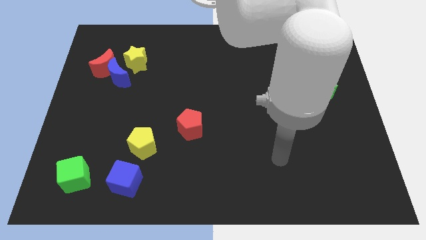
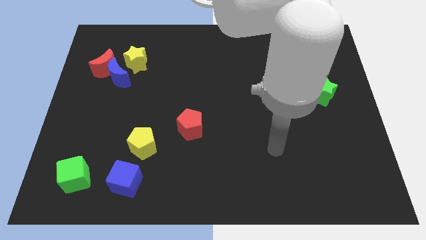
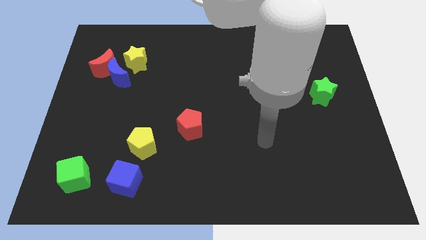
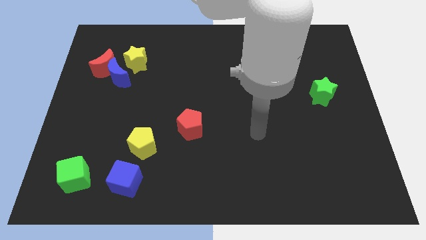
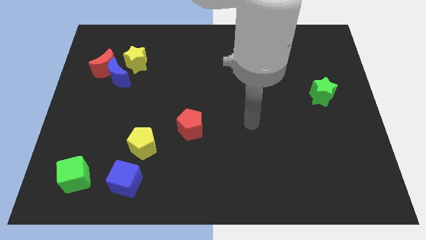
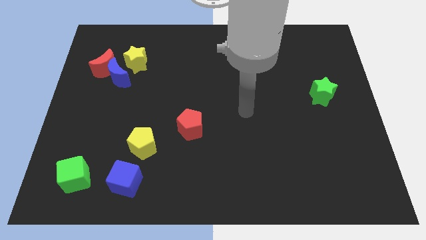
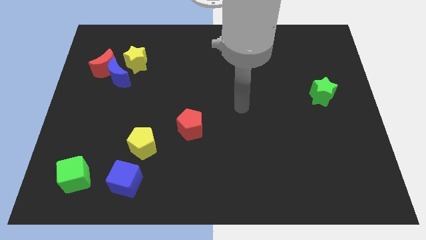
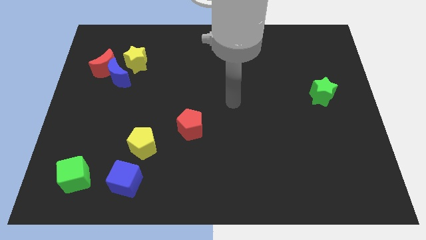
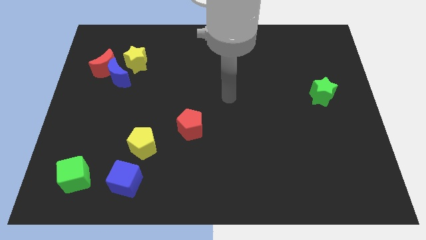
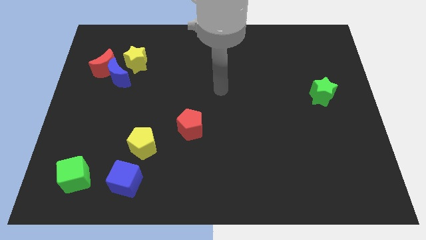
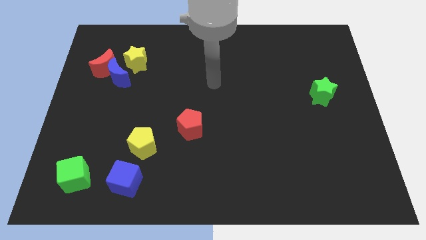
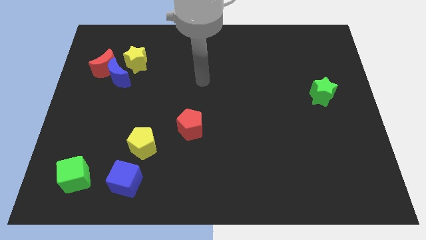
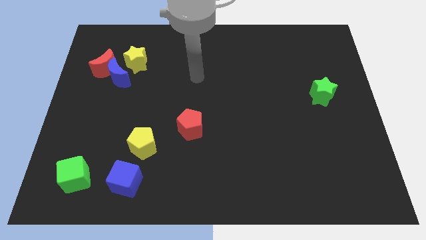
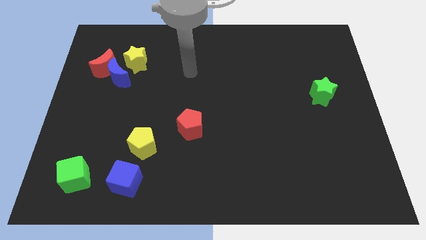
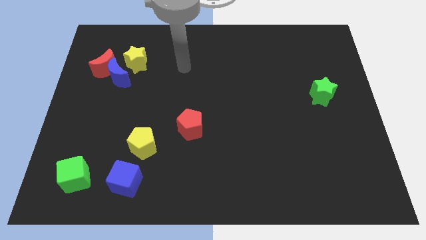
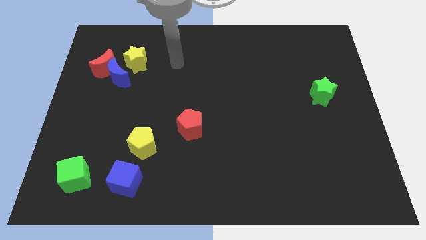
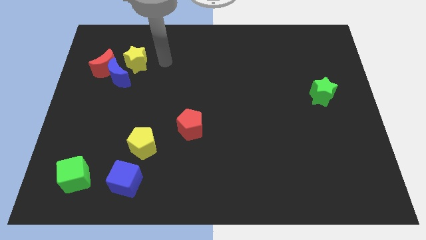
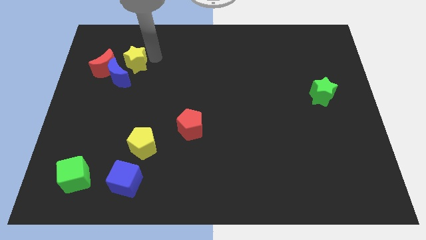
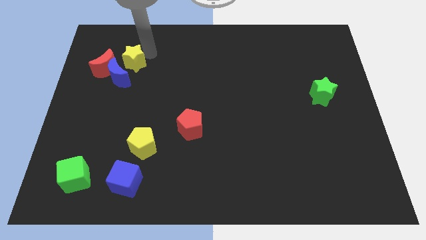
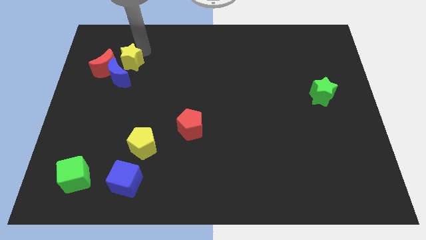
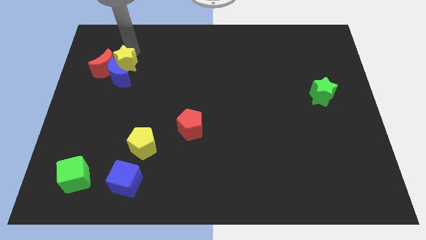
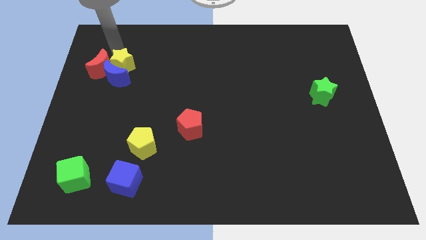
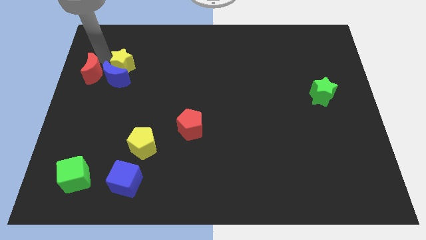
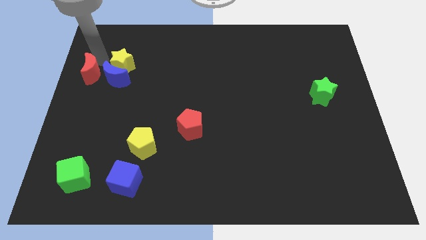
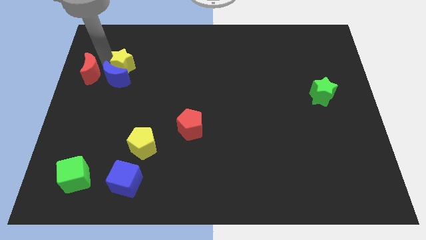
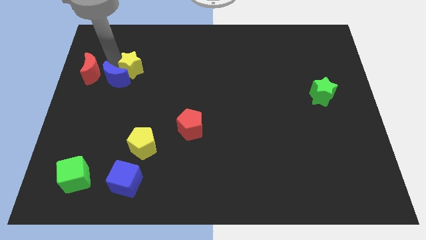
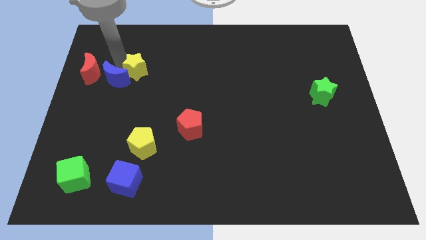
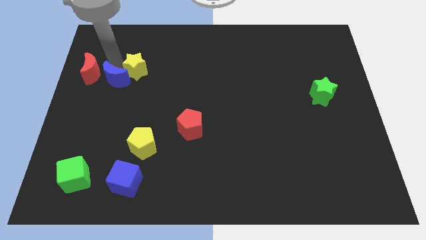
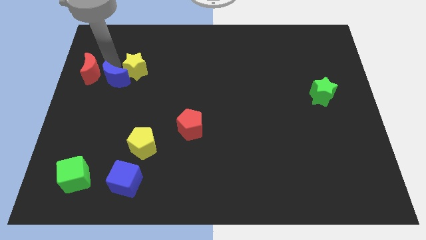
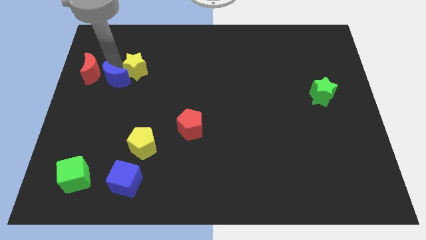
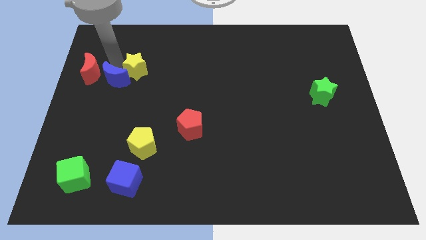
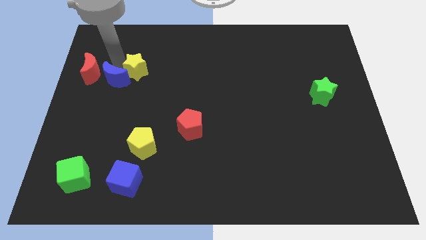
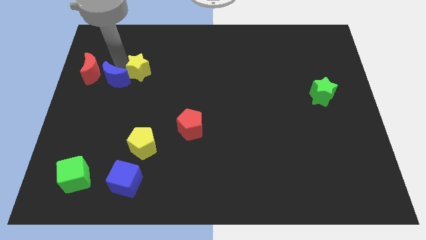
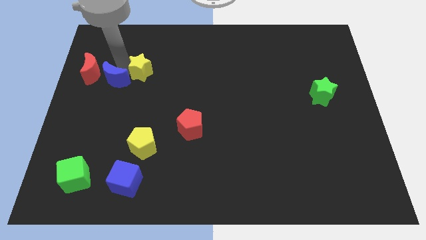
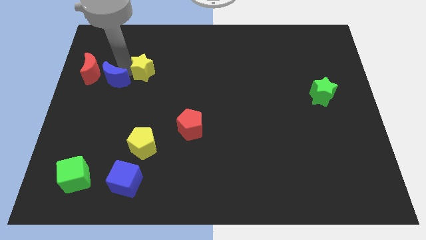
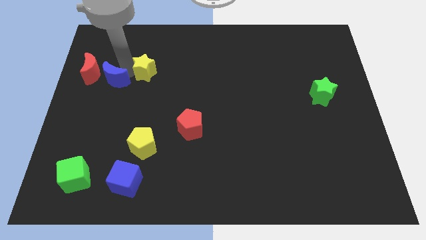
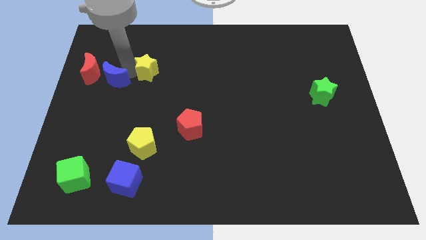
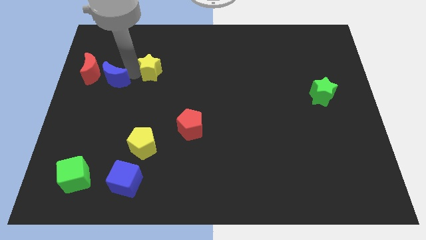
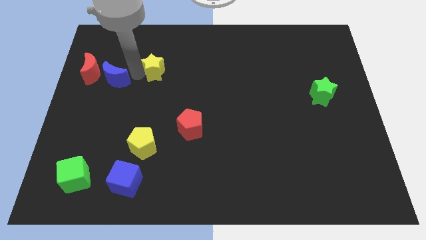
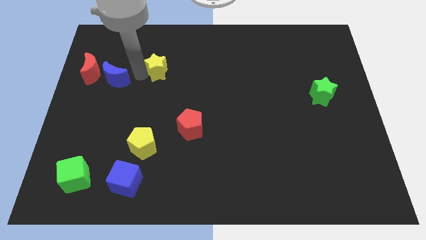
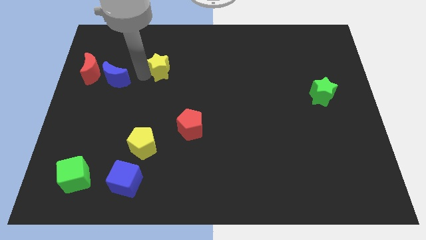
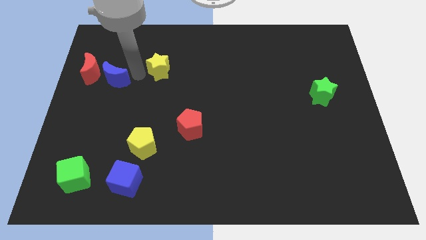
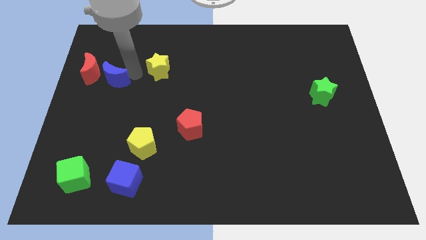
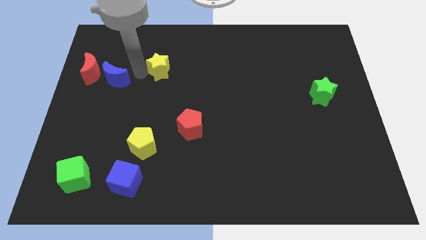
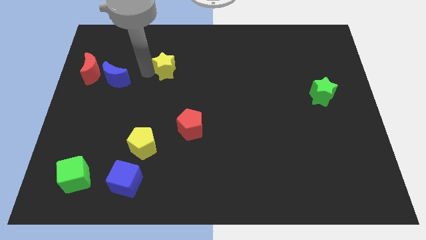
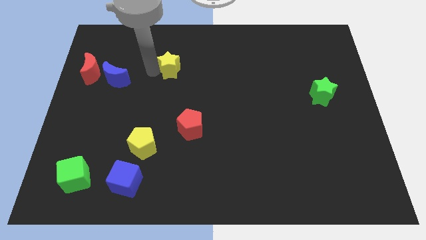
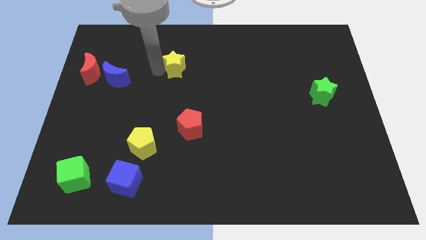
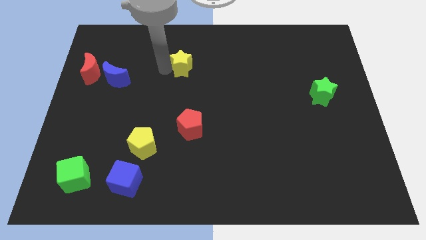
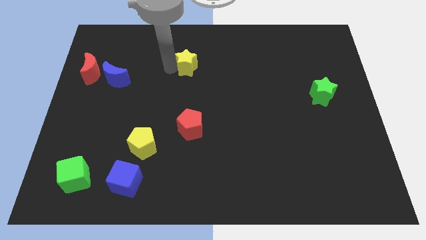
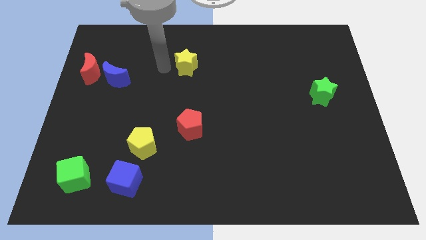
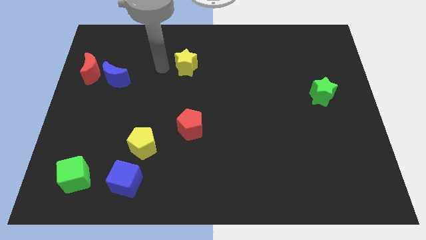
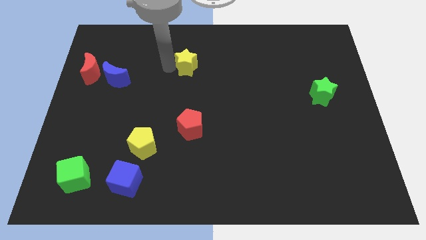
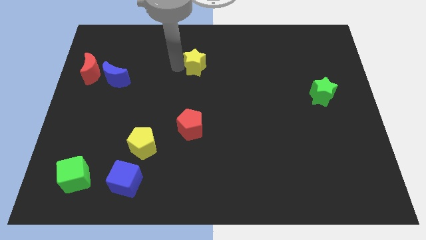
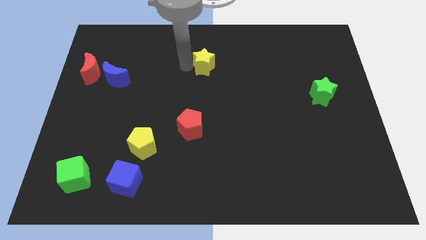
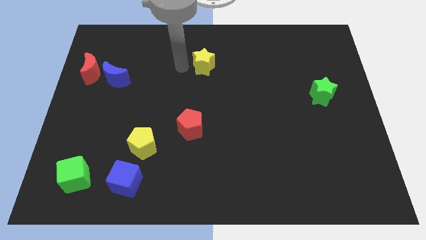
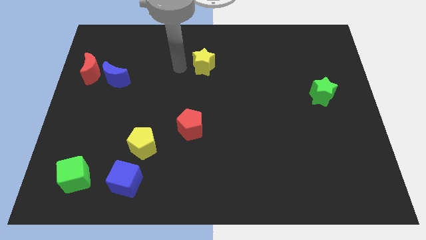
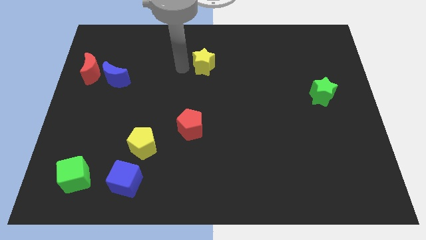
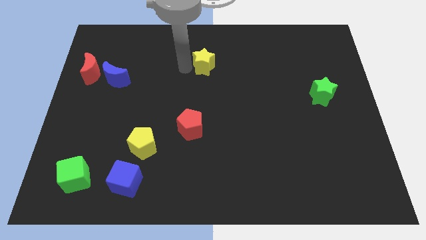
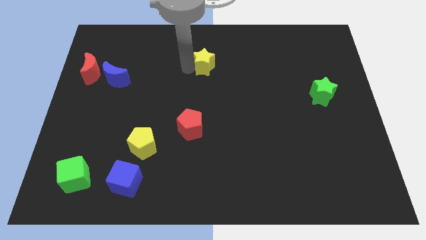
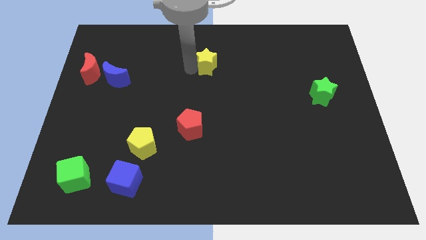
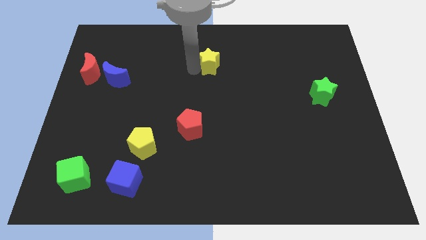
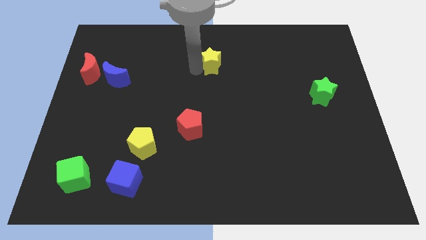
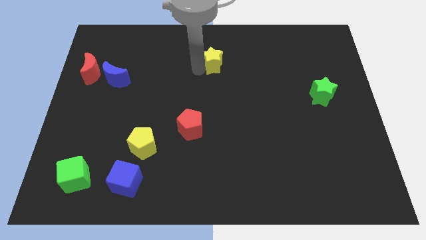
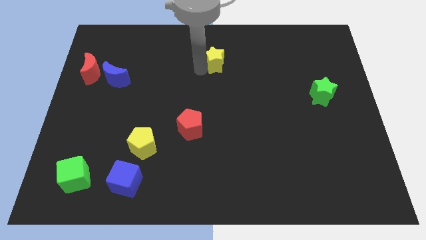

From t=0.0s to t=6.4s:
push the yellow star right

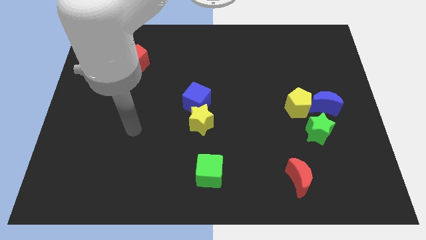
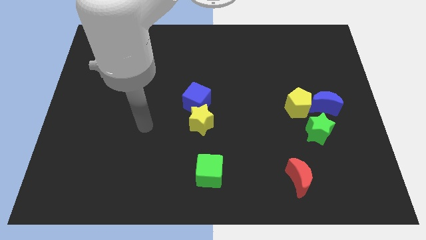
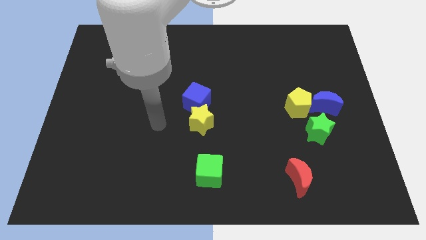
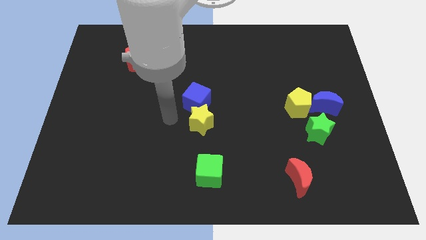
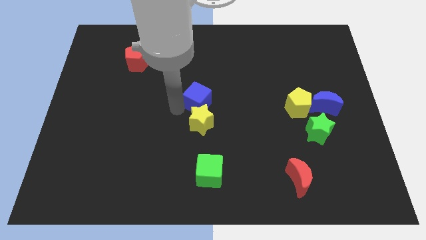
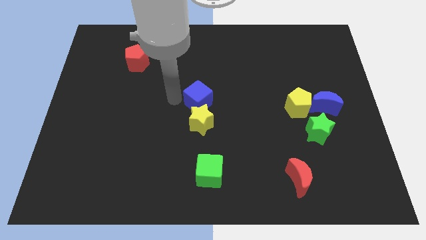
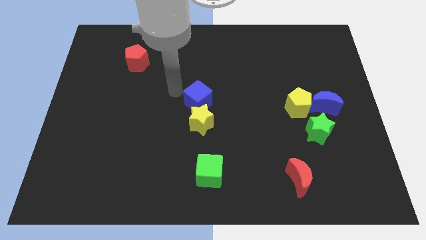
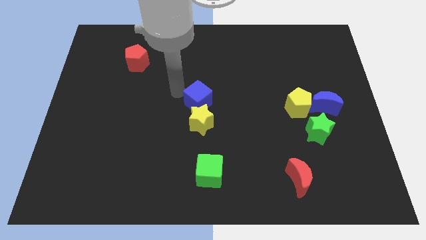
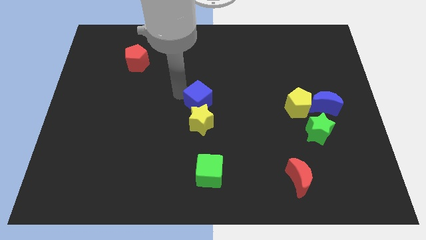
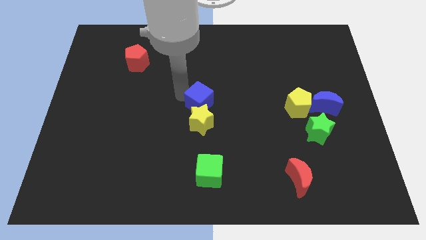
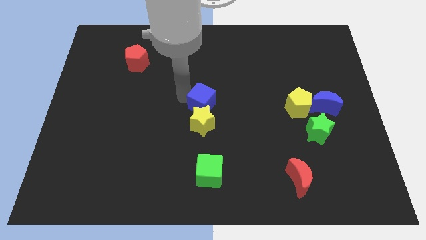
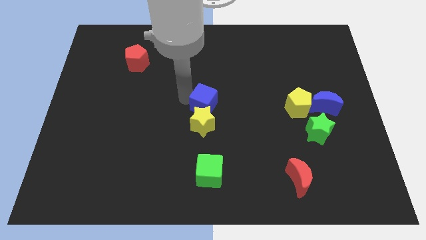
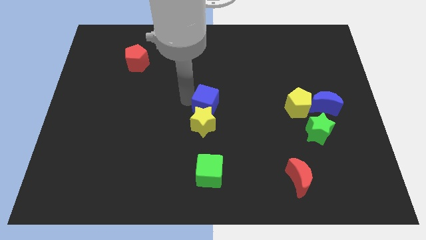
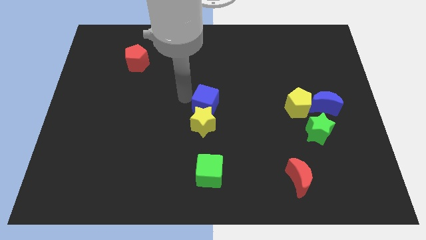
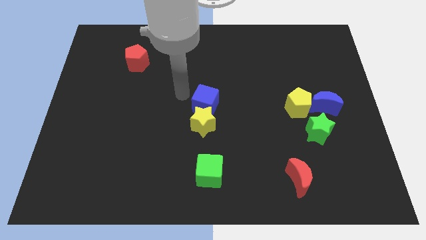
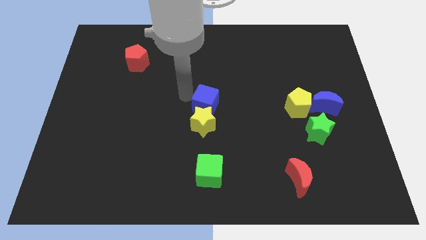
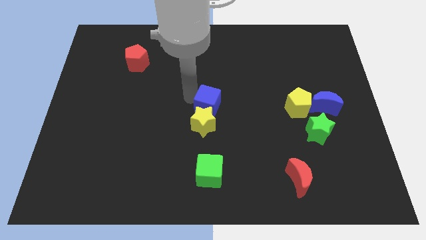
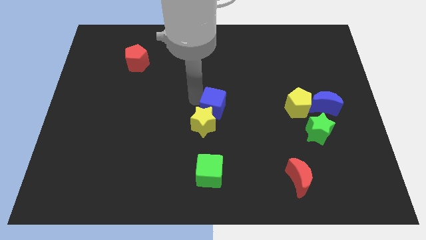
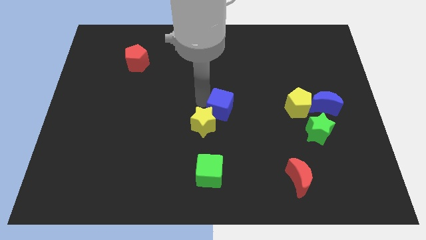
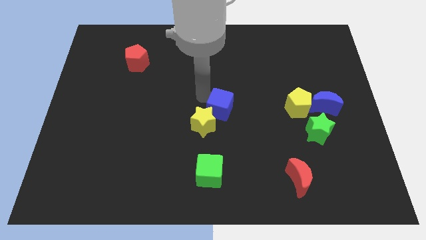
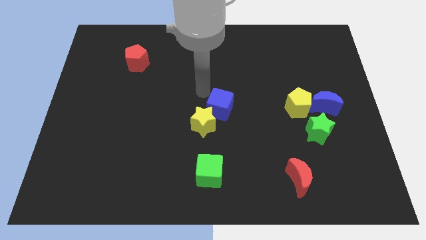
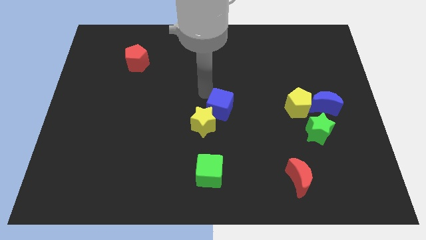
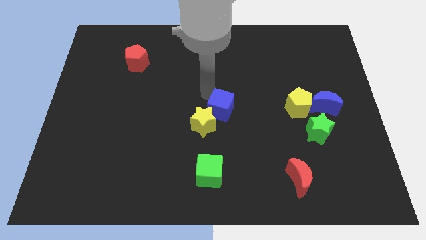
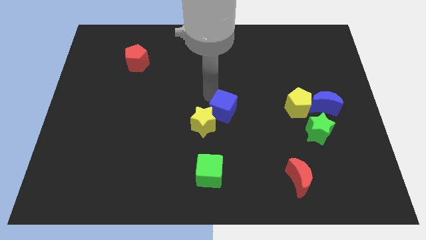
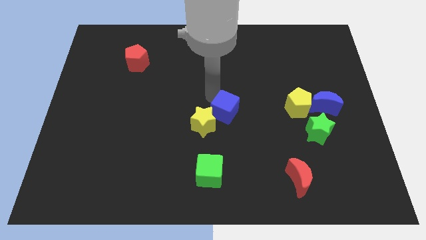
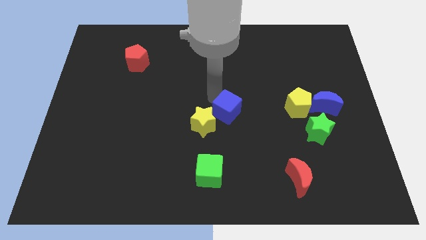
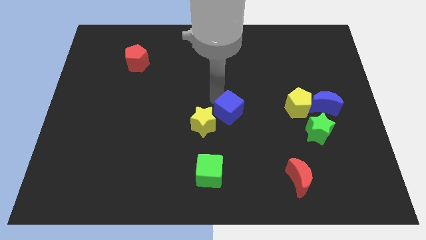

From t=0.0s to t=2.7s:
slightly push the blue cube down and to the right diagonally
